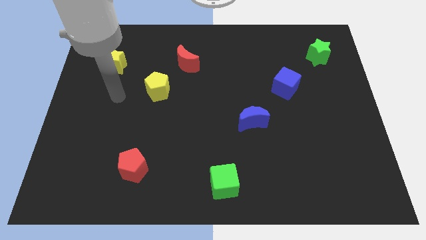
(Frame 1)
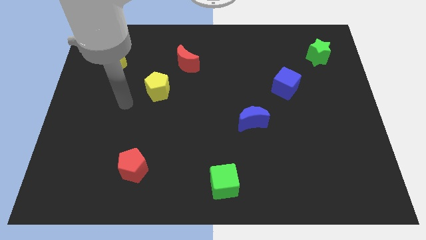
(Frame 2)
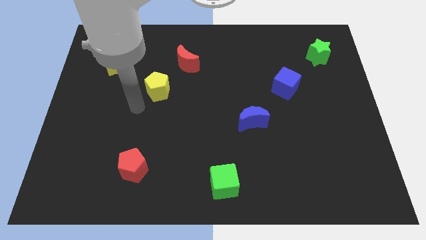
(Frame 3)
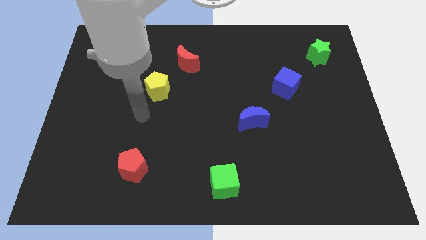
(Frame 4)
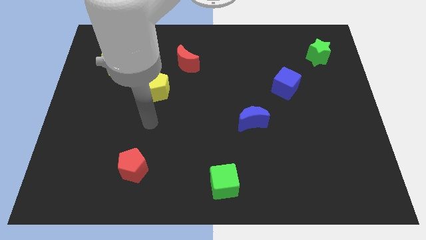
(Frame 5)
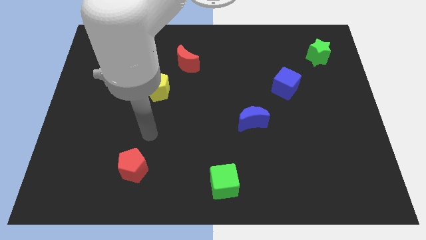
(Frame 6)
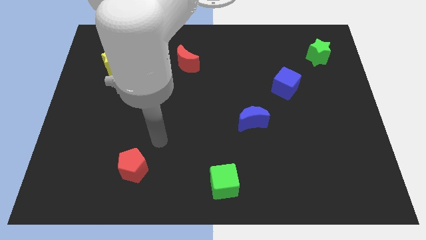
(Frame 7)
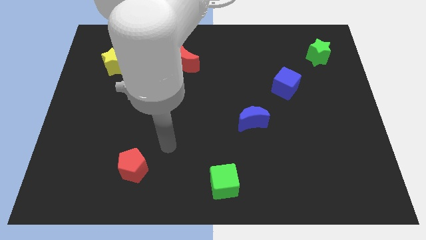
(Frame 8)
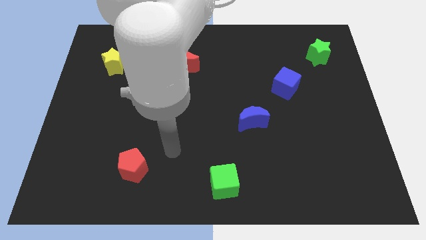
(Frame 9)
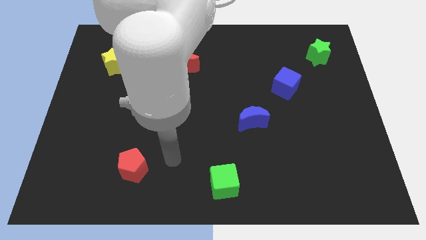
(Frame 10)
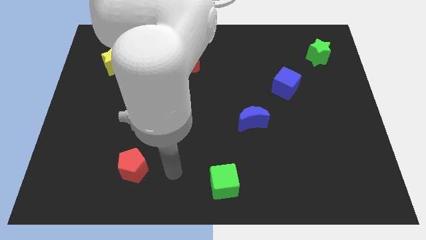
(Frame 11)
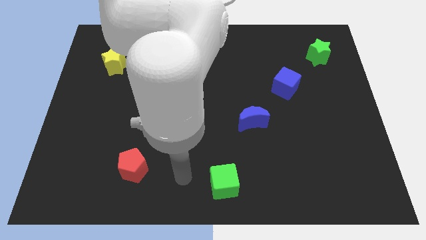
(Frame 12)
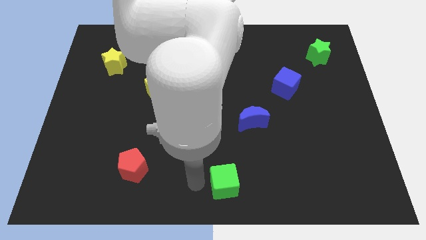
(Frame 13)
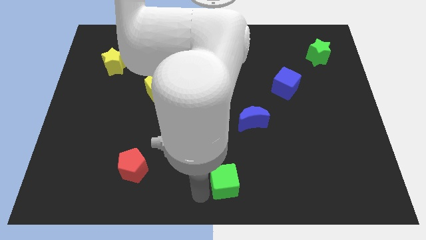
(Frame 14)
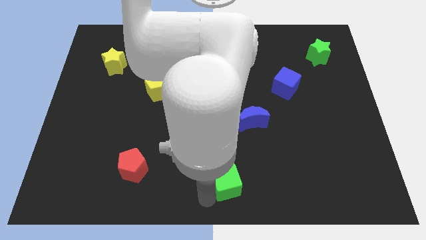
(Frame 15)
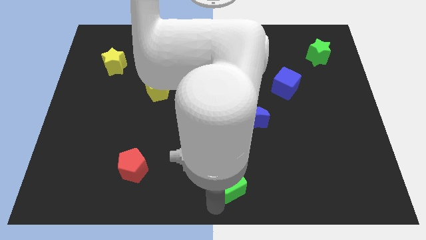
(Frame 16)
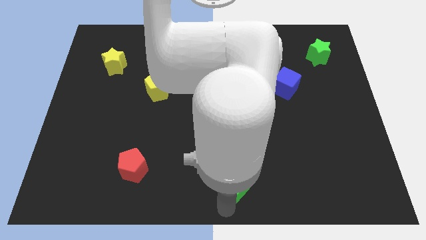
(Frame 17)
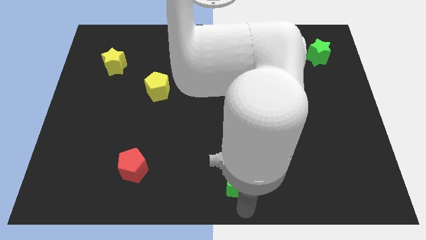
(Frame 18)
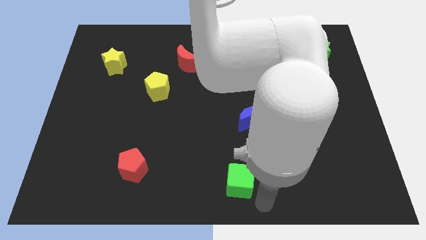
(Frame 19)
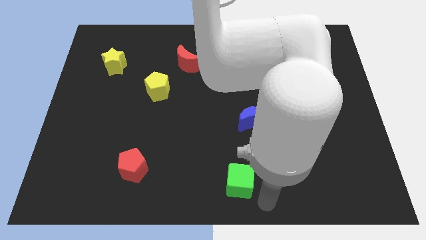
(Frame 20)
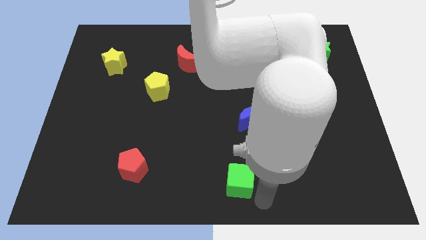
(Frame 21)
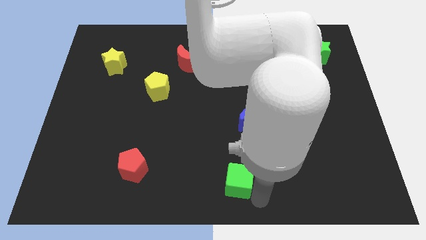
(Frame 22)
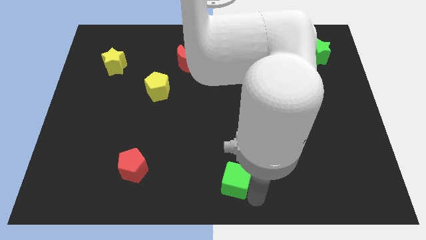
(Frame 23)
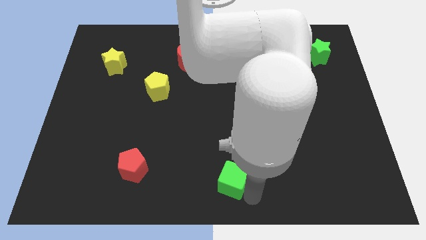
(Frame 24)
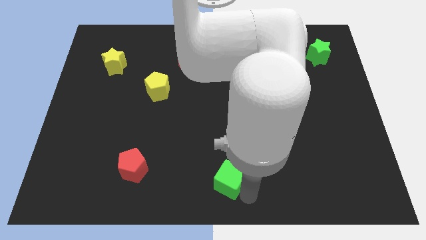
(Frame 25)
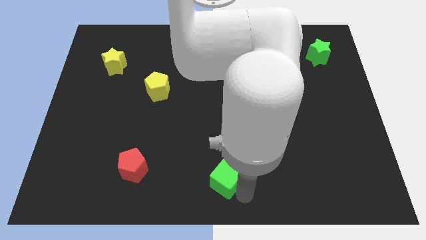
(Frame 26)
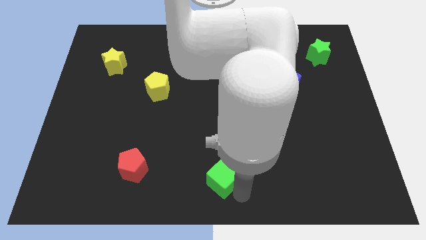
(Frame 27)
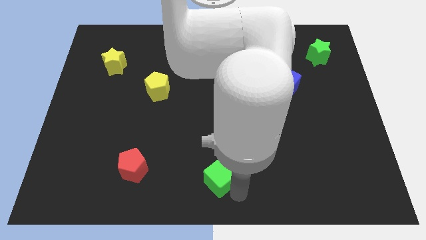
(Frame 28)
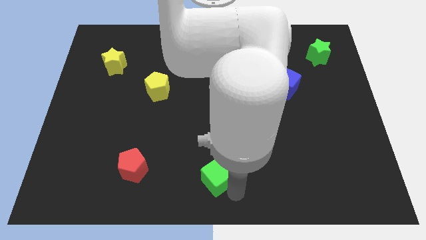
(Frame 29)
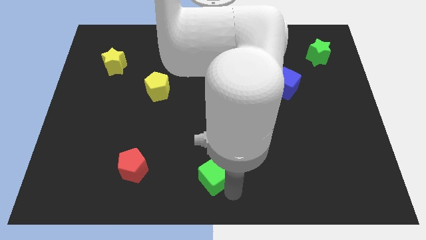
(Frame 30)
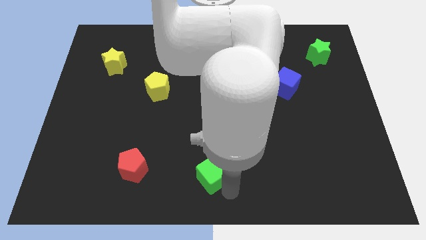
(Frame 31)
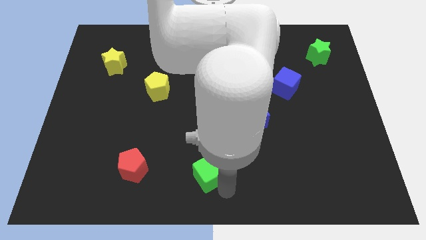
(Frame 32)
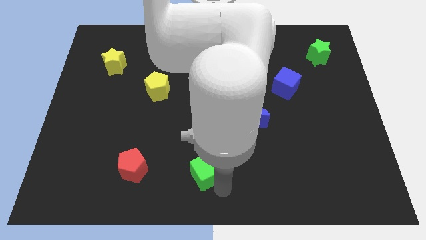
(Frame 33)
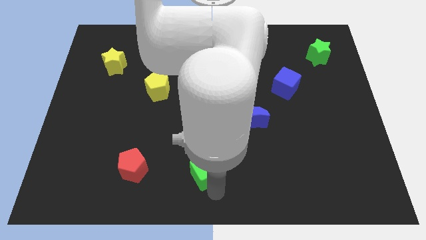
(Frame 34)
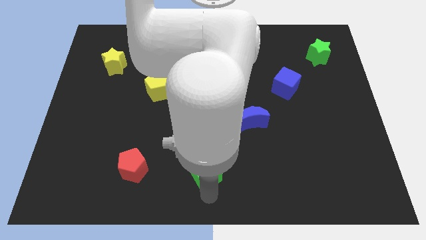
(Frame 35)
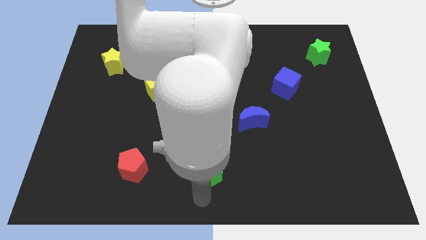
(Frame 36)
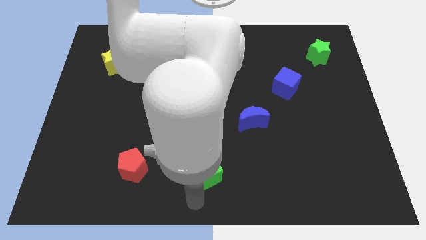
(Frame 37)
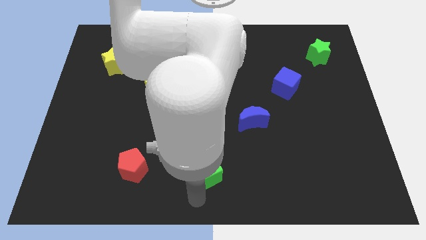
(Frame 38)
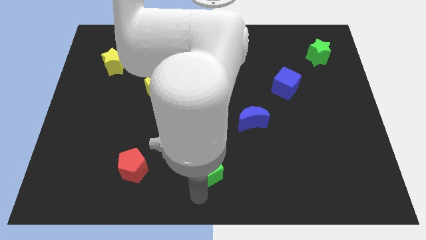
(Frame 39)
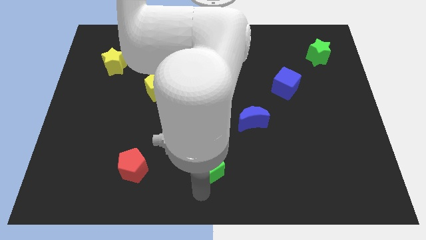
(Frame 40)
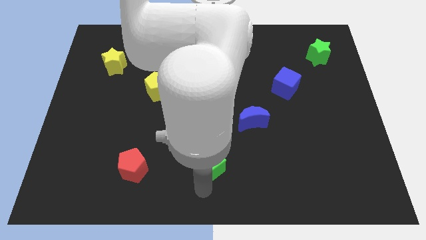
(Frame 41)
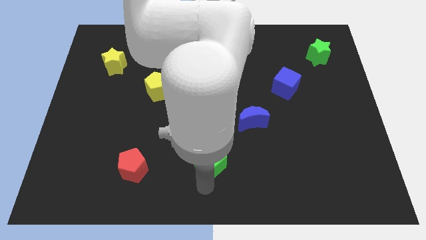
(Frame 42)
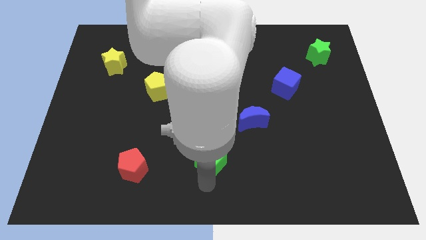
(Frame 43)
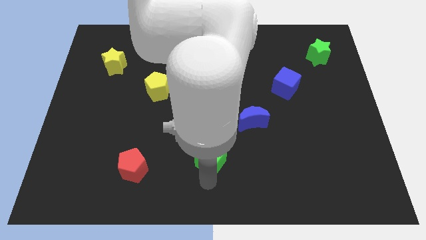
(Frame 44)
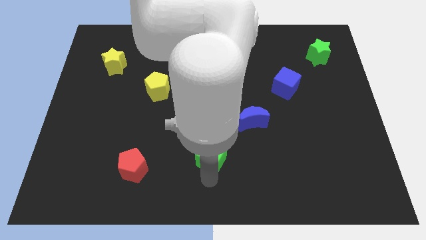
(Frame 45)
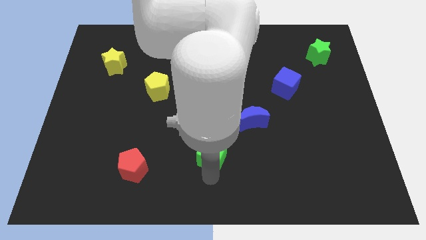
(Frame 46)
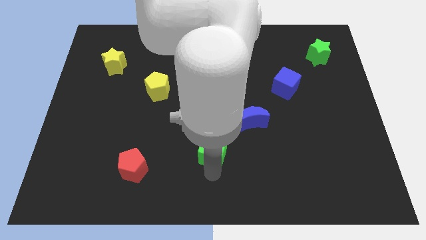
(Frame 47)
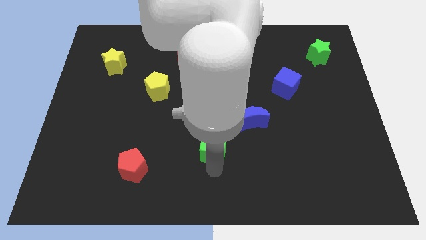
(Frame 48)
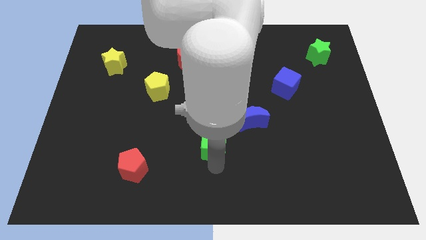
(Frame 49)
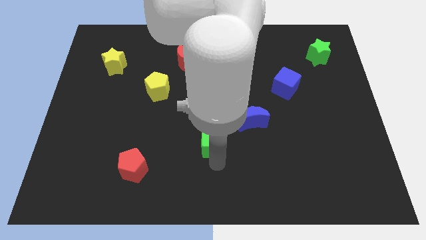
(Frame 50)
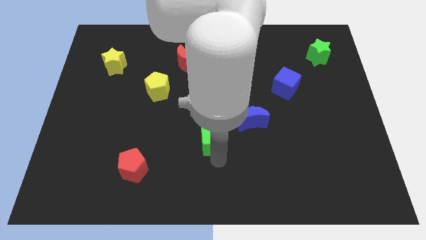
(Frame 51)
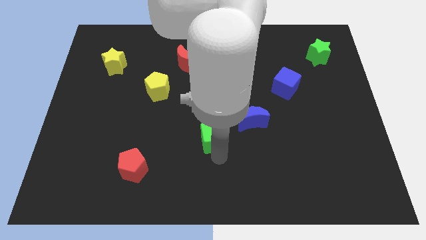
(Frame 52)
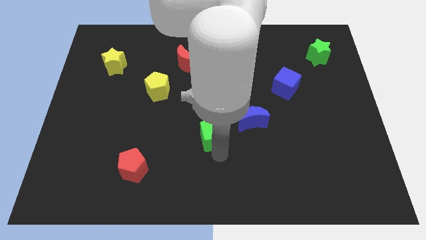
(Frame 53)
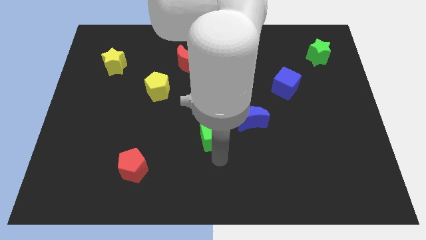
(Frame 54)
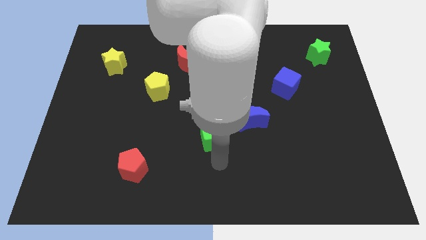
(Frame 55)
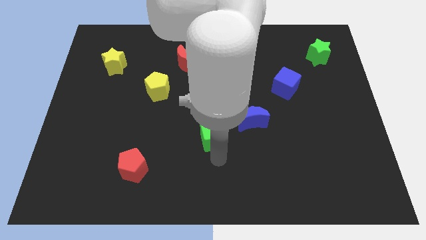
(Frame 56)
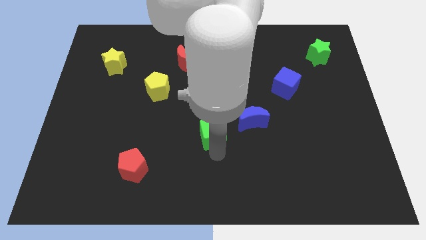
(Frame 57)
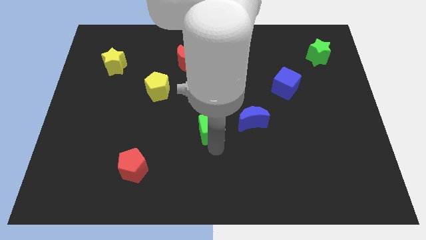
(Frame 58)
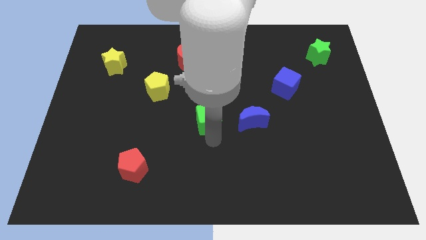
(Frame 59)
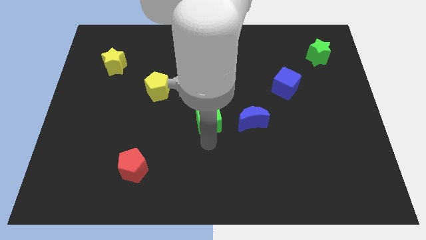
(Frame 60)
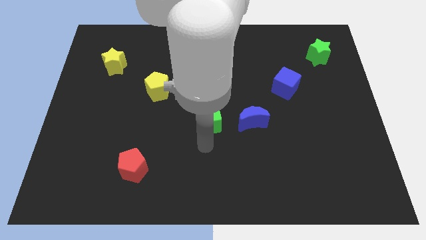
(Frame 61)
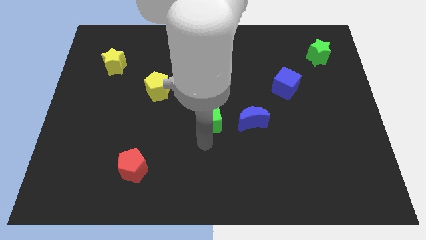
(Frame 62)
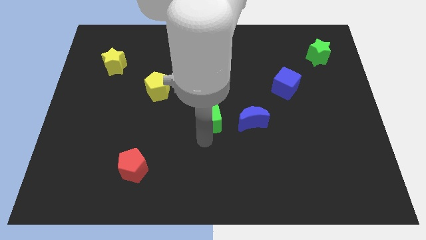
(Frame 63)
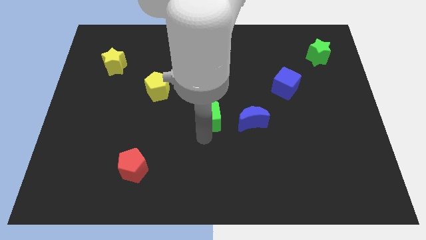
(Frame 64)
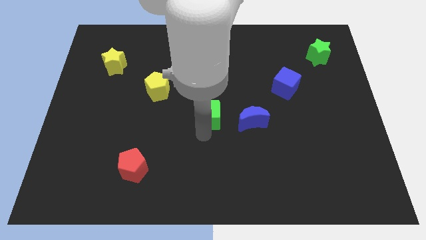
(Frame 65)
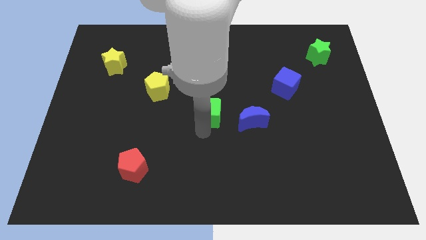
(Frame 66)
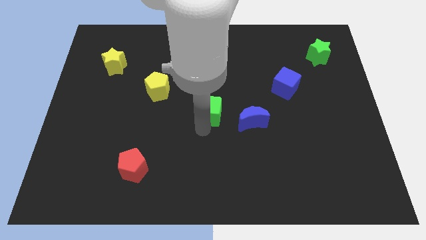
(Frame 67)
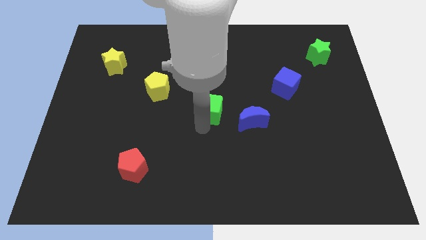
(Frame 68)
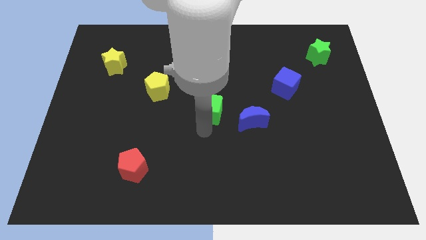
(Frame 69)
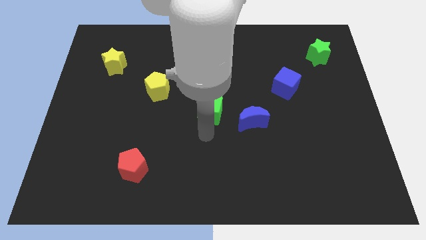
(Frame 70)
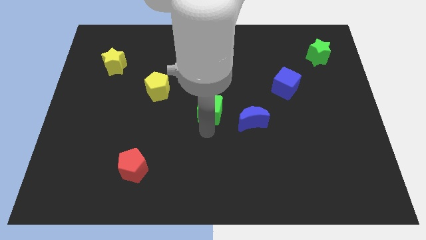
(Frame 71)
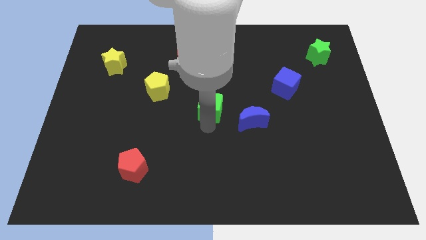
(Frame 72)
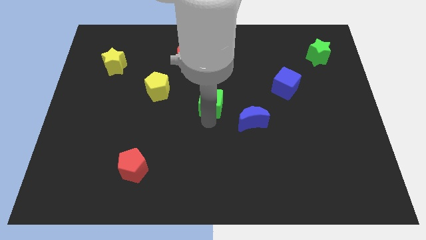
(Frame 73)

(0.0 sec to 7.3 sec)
push the green cube upwards

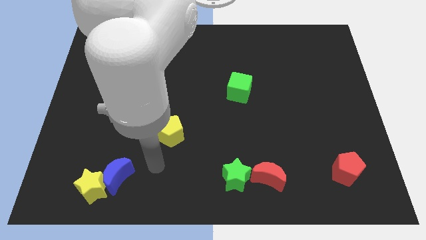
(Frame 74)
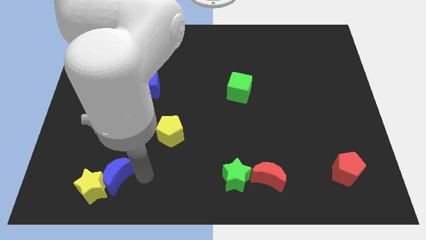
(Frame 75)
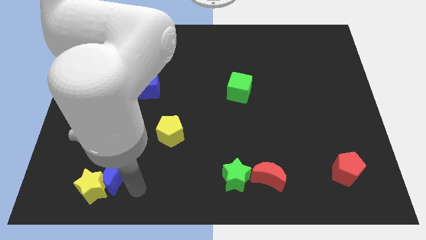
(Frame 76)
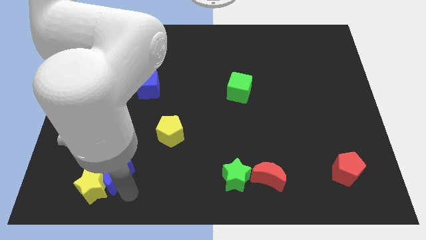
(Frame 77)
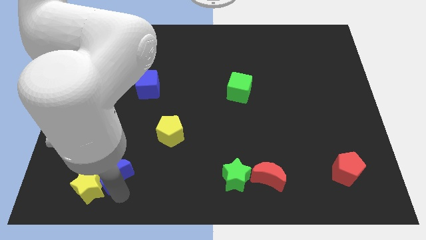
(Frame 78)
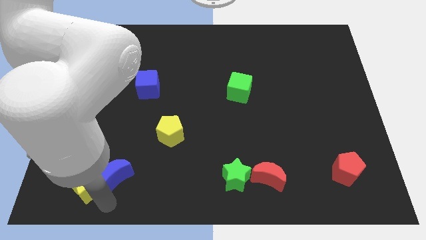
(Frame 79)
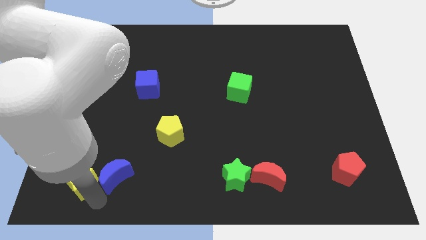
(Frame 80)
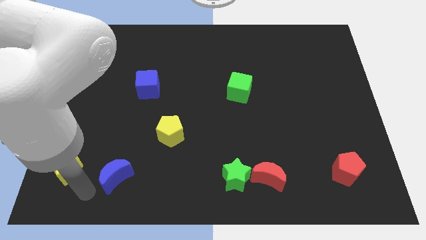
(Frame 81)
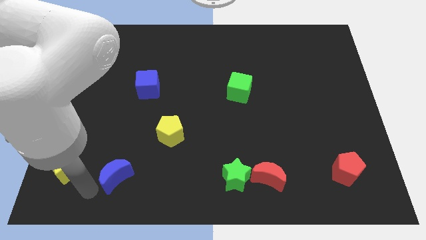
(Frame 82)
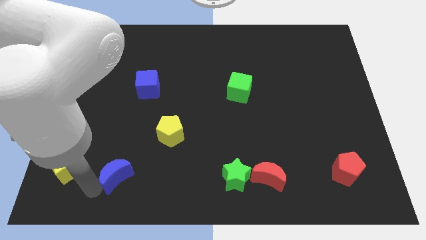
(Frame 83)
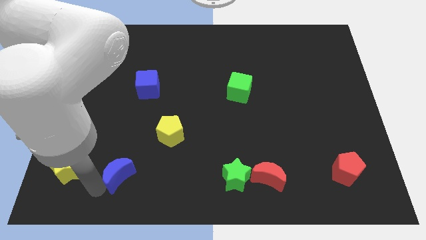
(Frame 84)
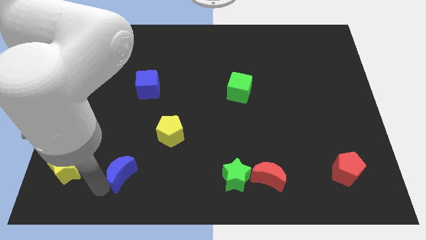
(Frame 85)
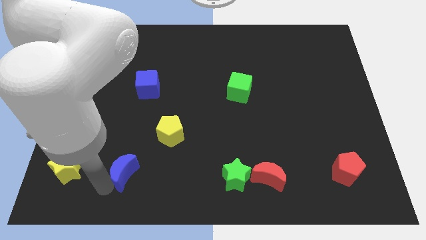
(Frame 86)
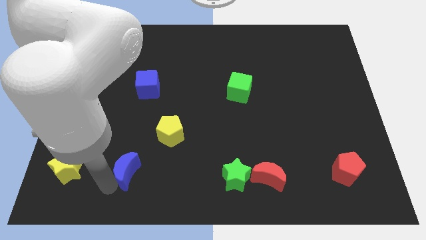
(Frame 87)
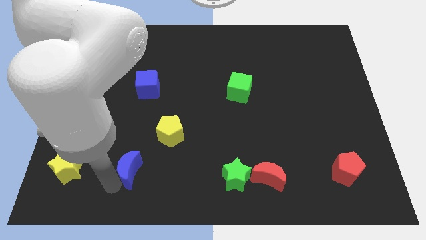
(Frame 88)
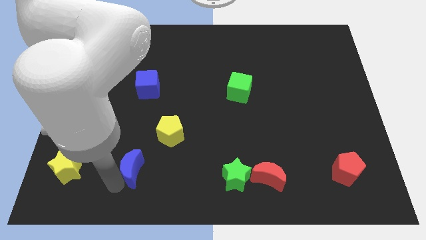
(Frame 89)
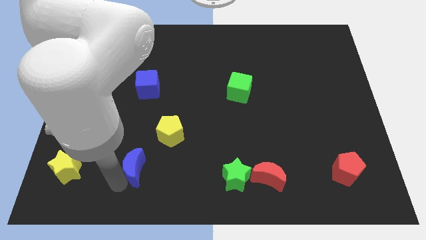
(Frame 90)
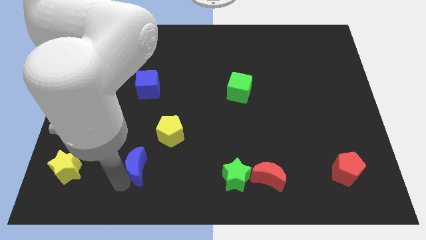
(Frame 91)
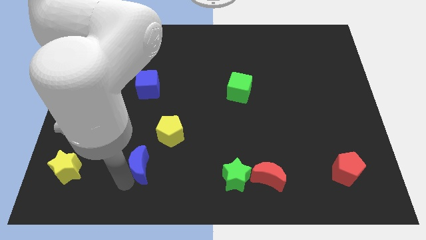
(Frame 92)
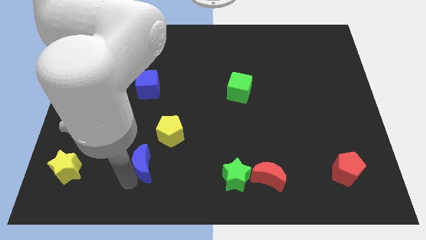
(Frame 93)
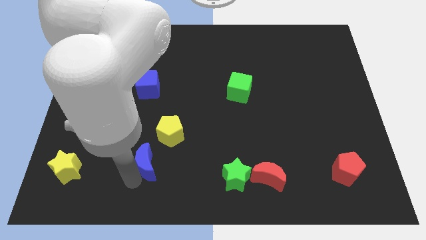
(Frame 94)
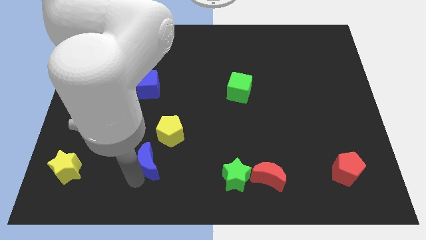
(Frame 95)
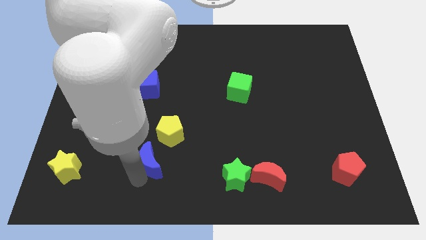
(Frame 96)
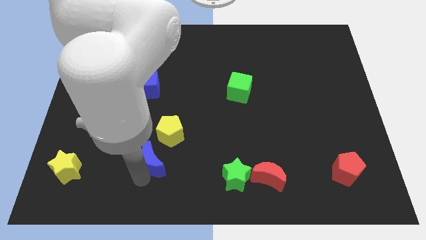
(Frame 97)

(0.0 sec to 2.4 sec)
move the blue moon slightly upwards and right diagonally
